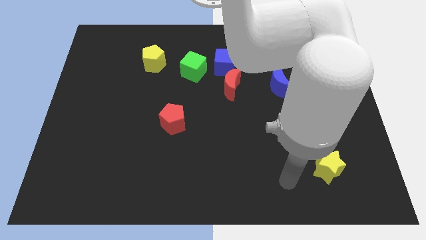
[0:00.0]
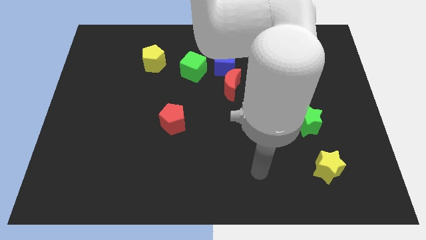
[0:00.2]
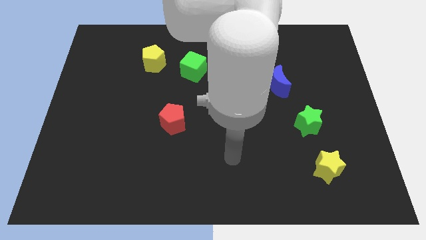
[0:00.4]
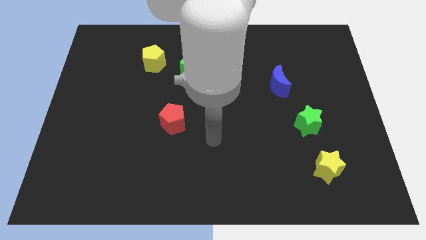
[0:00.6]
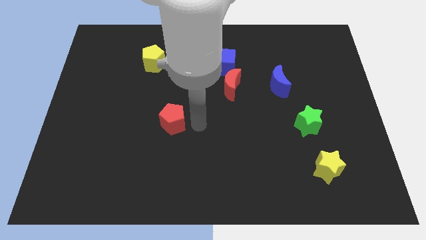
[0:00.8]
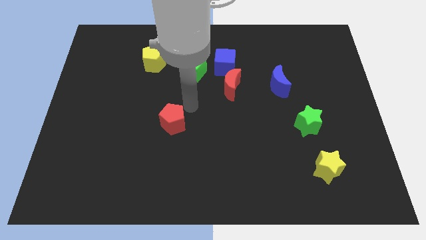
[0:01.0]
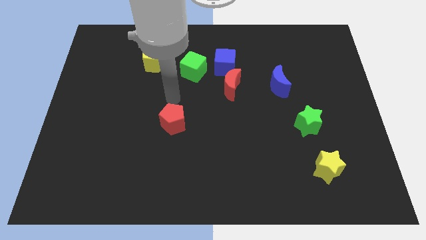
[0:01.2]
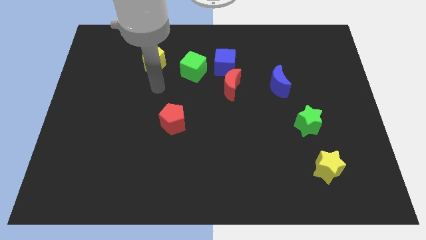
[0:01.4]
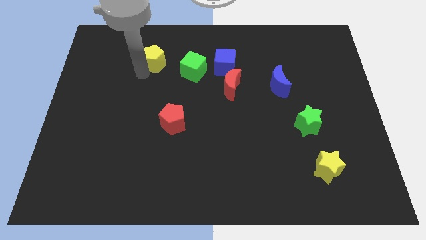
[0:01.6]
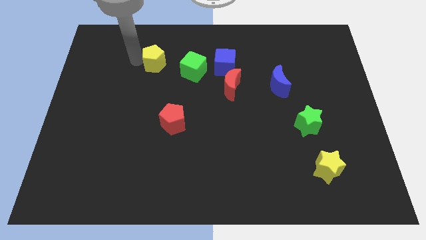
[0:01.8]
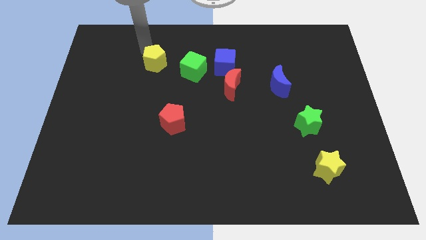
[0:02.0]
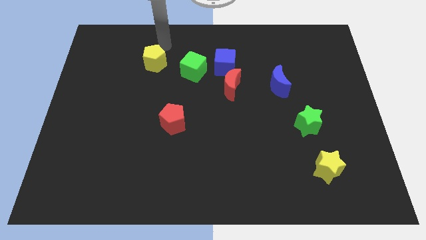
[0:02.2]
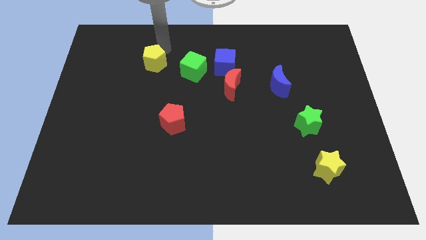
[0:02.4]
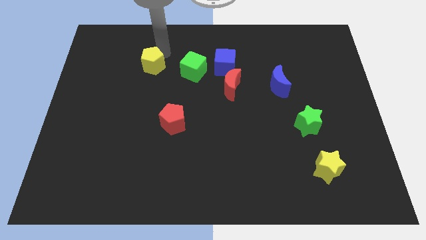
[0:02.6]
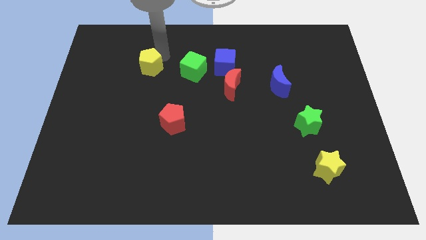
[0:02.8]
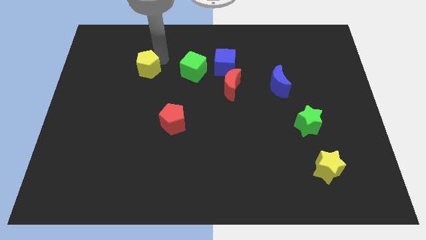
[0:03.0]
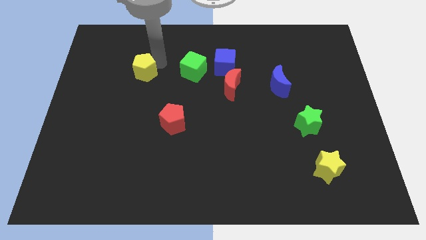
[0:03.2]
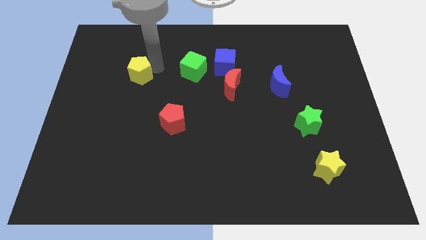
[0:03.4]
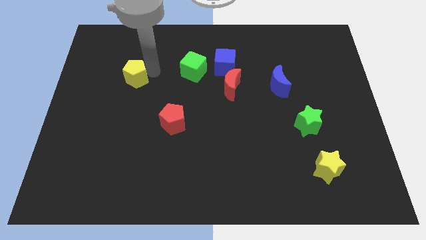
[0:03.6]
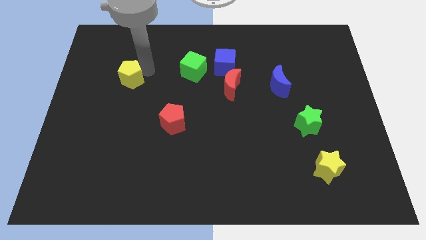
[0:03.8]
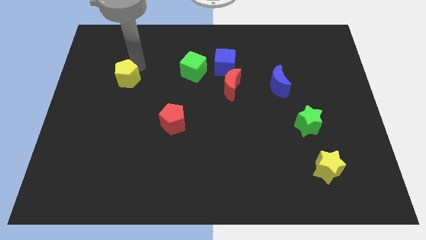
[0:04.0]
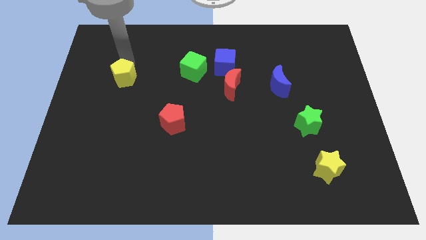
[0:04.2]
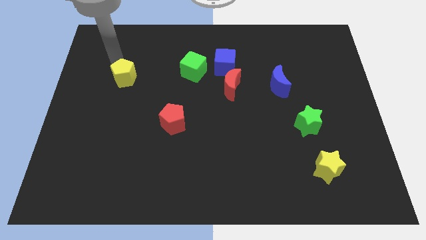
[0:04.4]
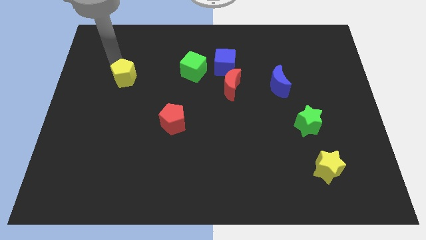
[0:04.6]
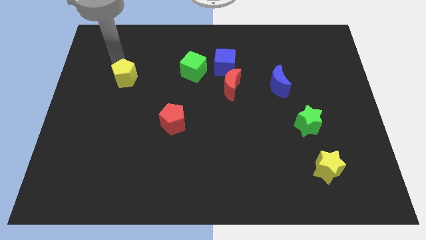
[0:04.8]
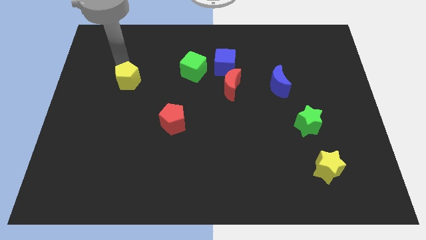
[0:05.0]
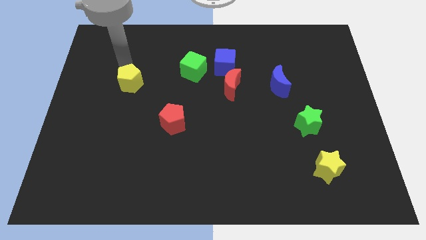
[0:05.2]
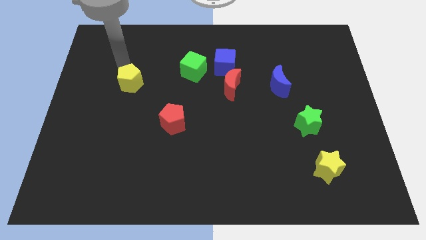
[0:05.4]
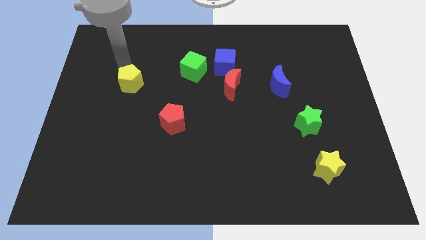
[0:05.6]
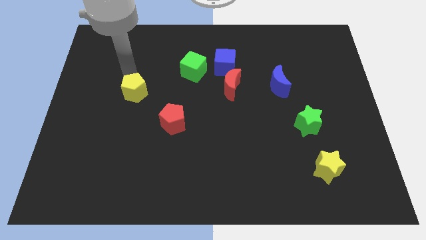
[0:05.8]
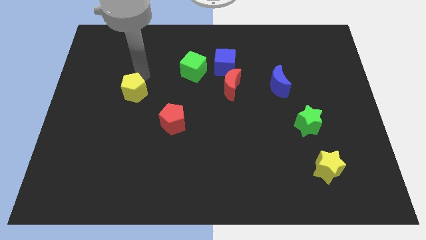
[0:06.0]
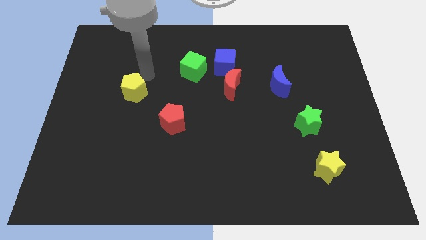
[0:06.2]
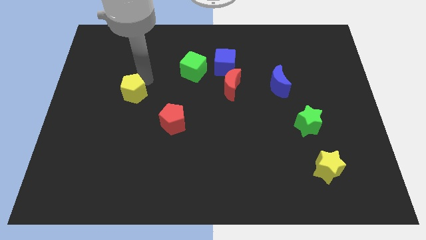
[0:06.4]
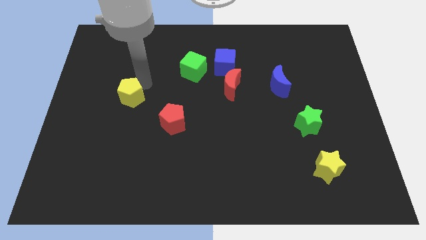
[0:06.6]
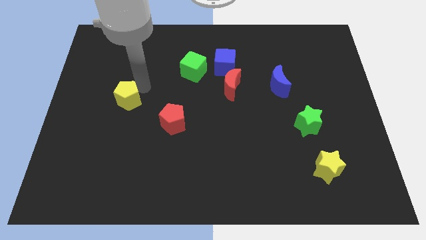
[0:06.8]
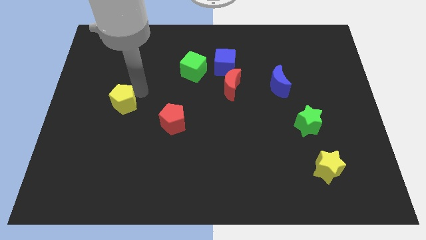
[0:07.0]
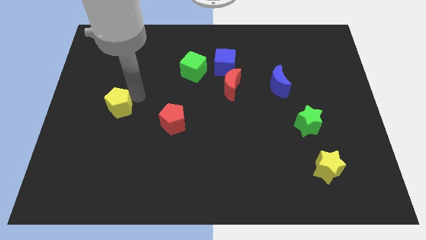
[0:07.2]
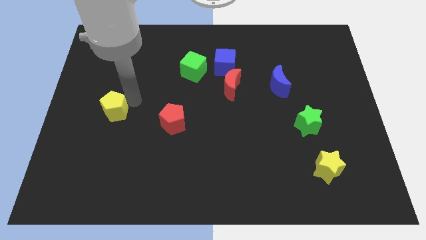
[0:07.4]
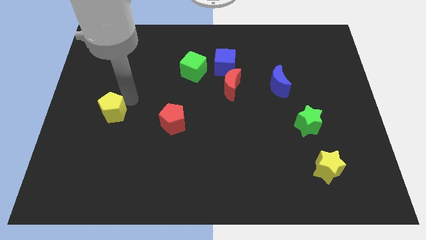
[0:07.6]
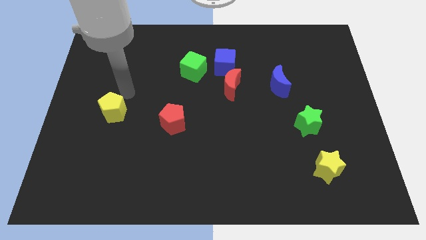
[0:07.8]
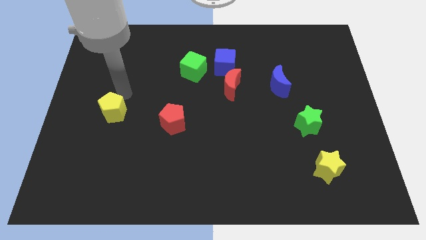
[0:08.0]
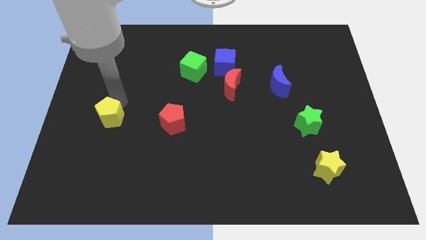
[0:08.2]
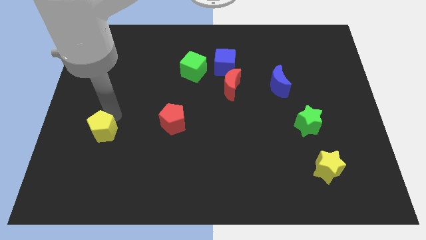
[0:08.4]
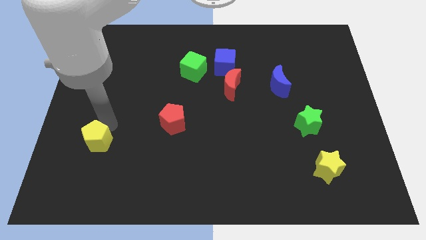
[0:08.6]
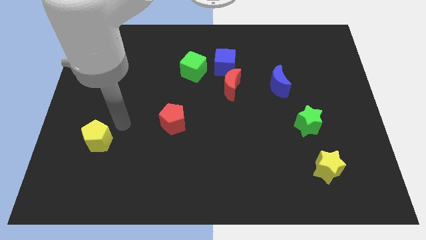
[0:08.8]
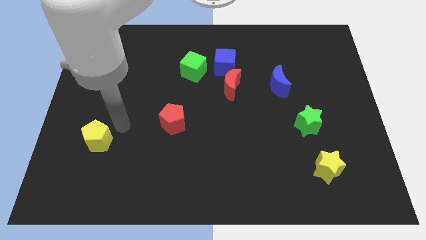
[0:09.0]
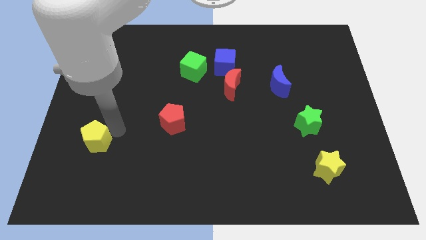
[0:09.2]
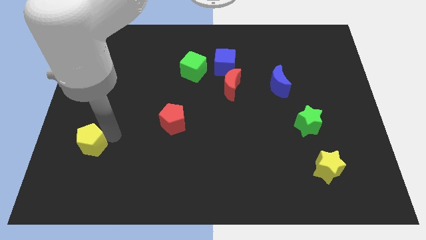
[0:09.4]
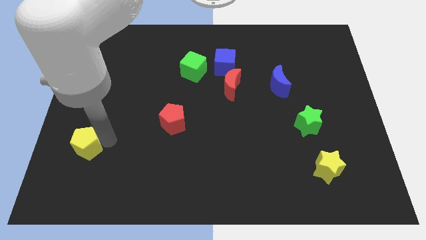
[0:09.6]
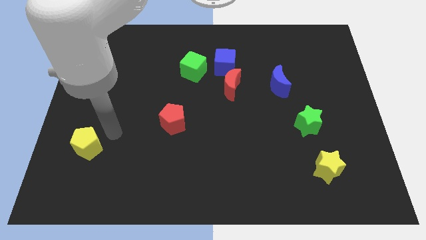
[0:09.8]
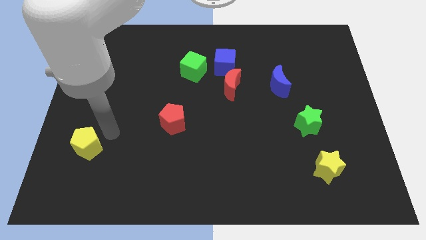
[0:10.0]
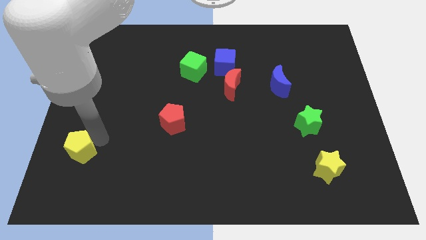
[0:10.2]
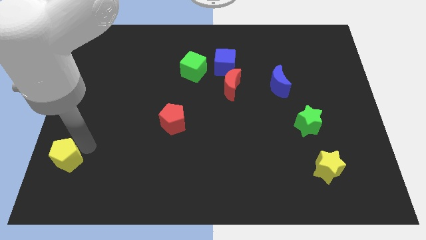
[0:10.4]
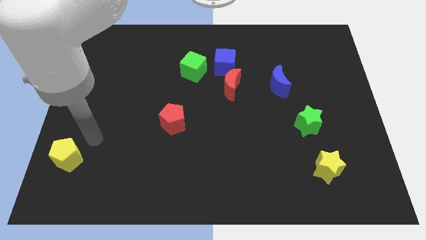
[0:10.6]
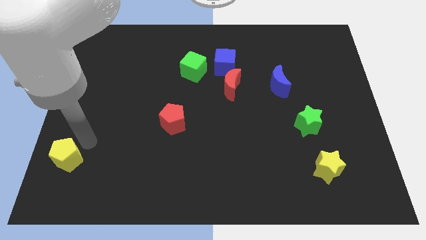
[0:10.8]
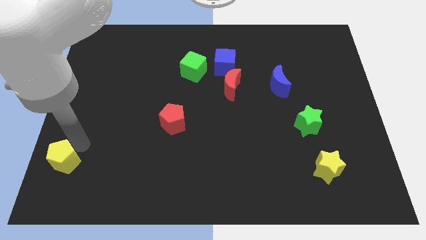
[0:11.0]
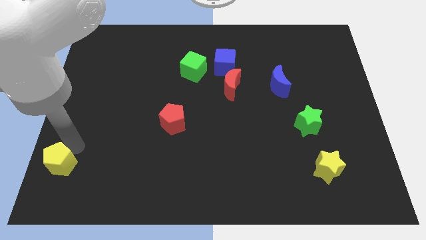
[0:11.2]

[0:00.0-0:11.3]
move the yellow pentagon to the bottom left

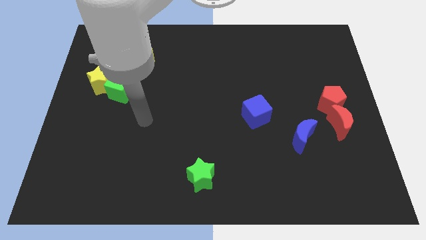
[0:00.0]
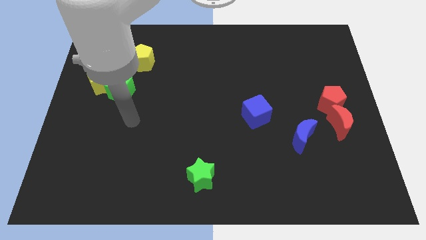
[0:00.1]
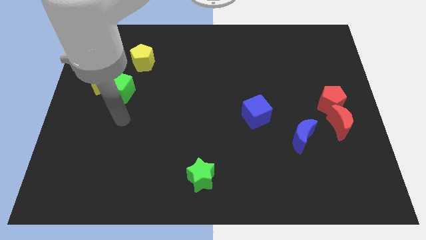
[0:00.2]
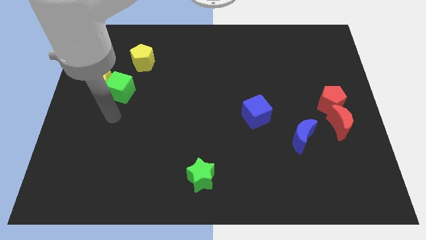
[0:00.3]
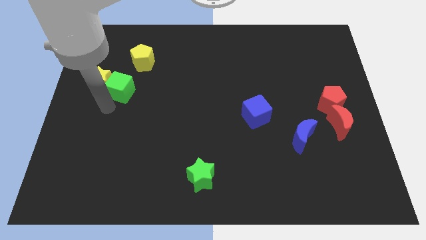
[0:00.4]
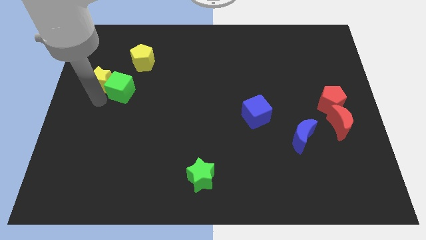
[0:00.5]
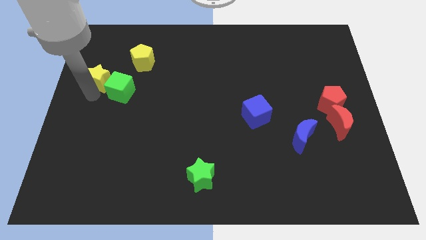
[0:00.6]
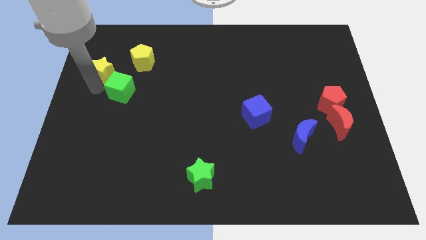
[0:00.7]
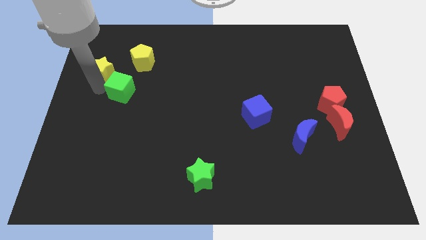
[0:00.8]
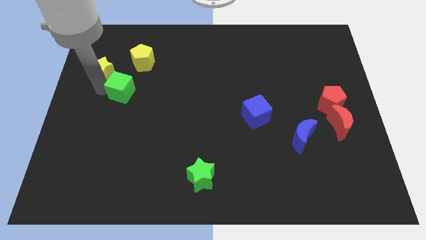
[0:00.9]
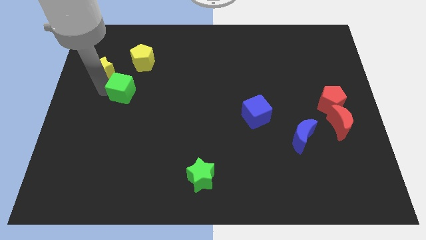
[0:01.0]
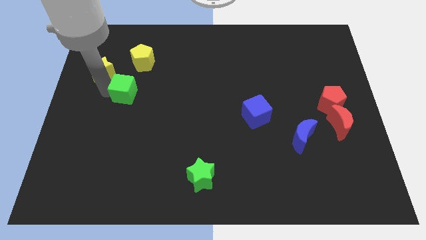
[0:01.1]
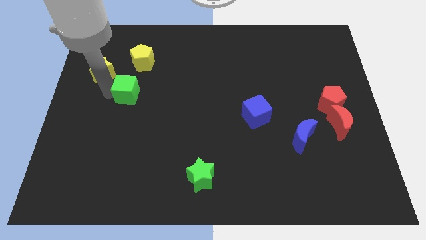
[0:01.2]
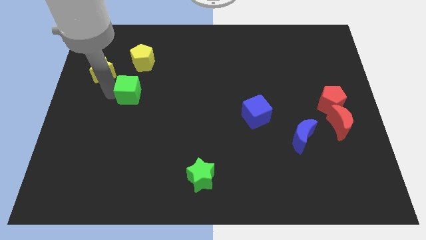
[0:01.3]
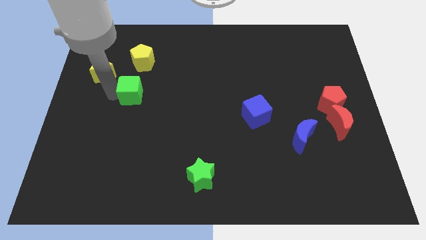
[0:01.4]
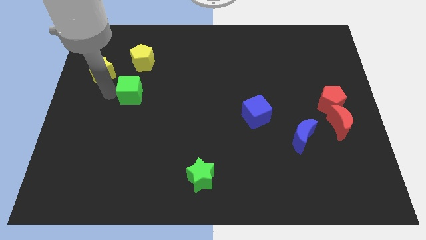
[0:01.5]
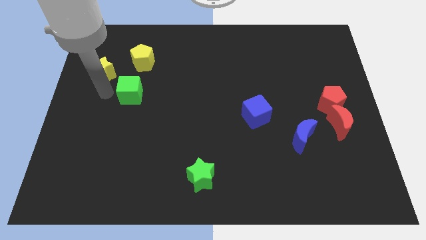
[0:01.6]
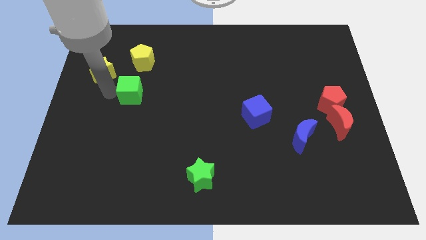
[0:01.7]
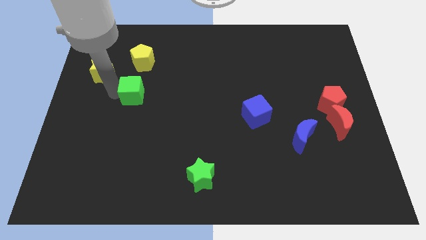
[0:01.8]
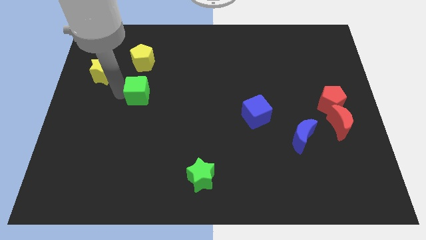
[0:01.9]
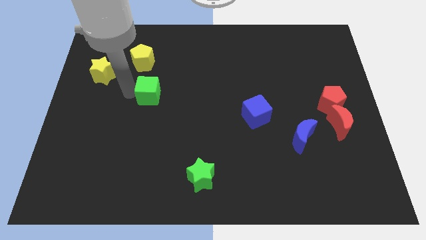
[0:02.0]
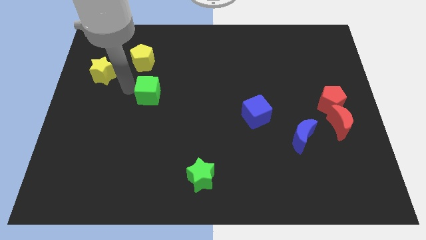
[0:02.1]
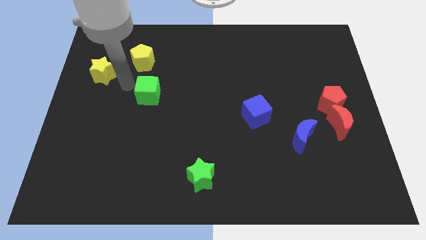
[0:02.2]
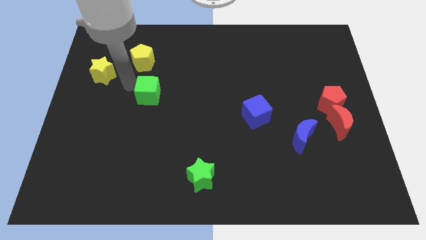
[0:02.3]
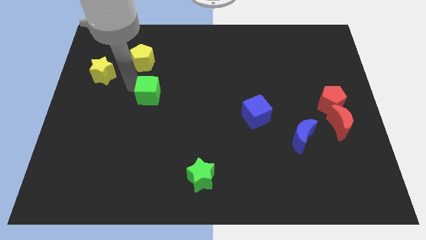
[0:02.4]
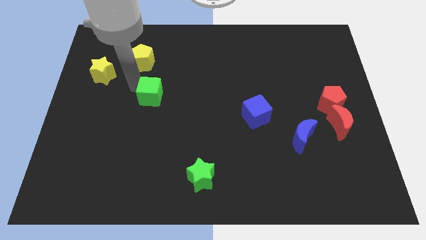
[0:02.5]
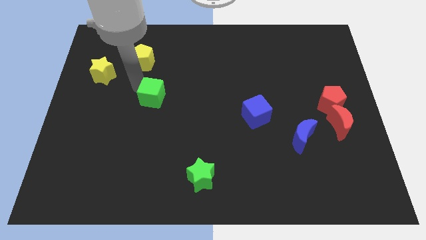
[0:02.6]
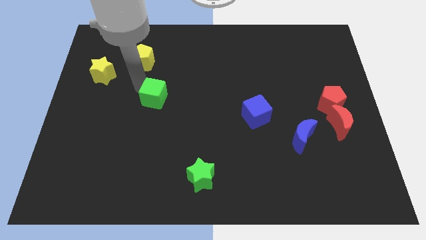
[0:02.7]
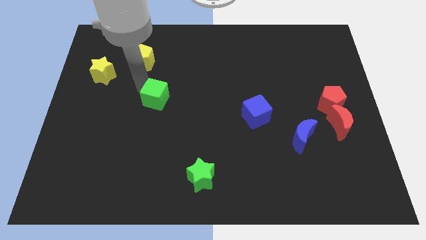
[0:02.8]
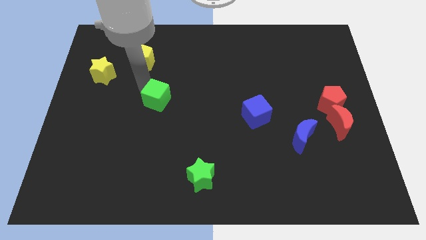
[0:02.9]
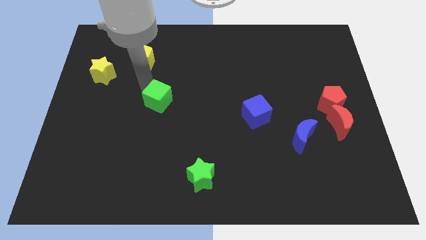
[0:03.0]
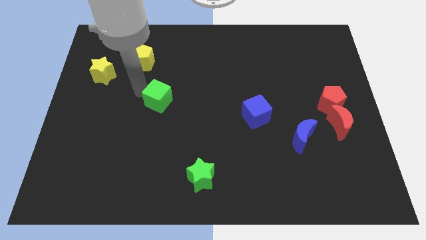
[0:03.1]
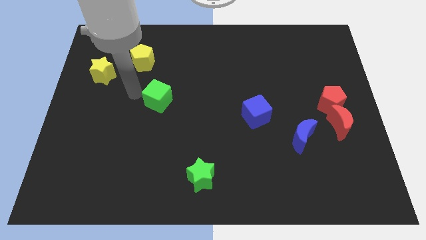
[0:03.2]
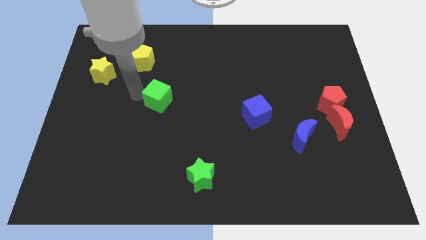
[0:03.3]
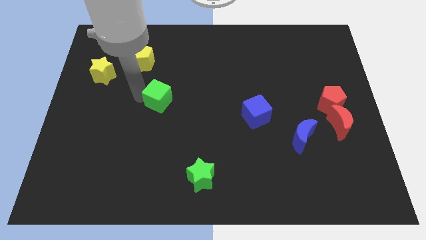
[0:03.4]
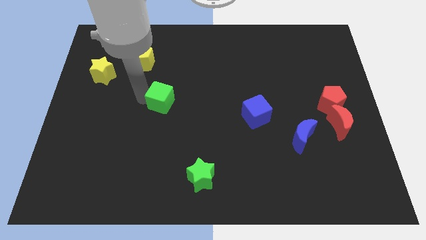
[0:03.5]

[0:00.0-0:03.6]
move the green cube to the middle of the board
